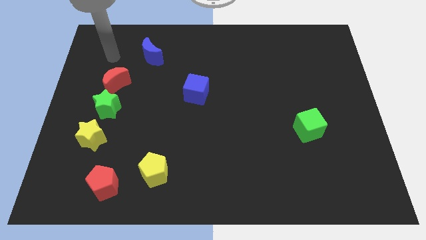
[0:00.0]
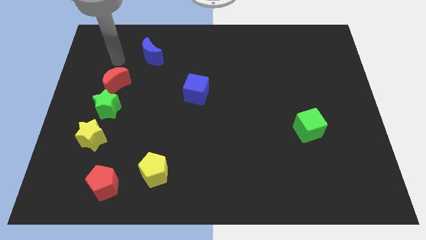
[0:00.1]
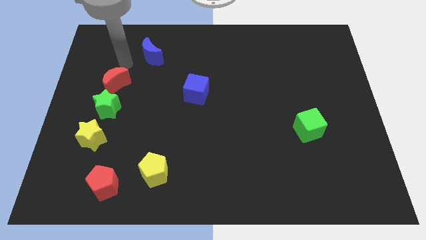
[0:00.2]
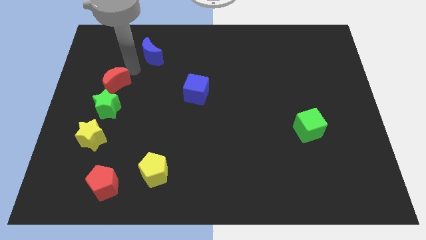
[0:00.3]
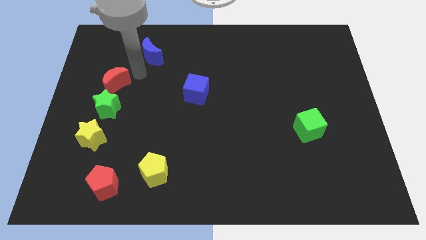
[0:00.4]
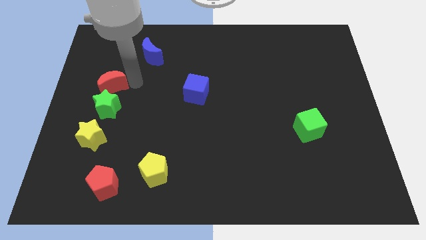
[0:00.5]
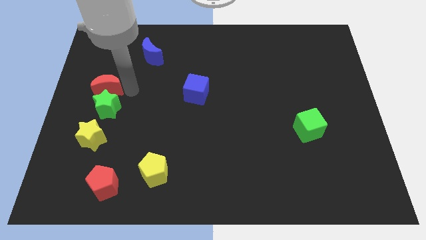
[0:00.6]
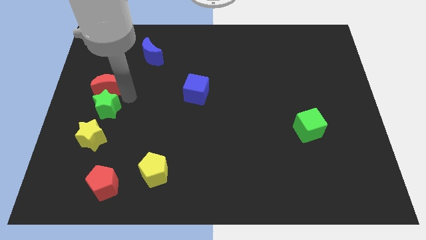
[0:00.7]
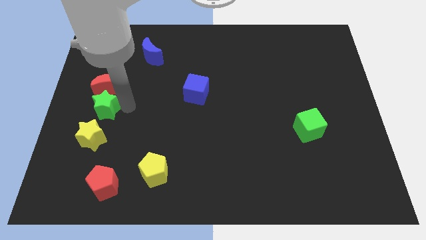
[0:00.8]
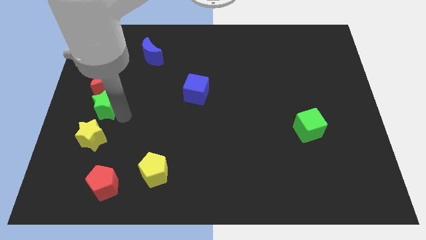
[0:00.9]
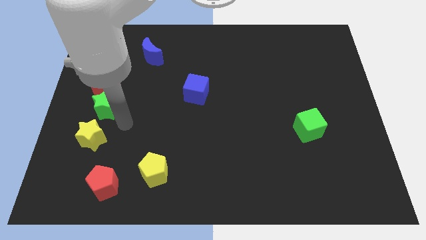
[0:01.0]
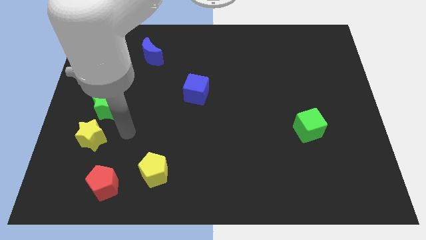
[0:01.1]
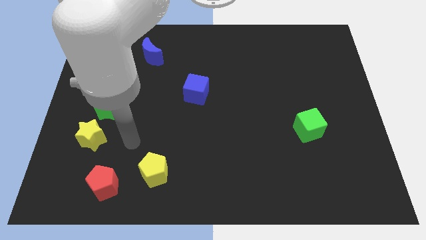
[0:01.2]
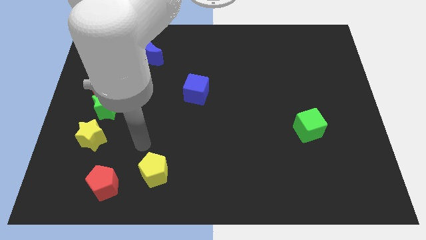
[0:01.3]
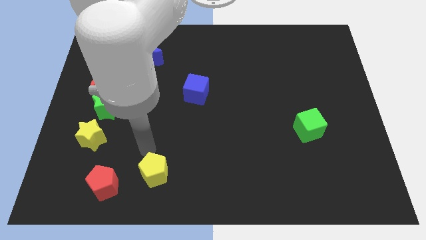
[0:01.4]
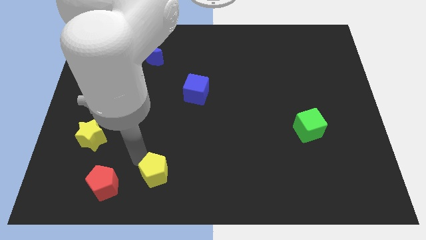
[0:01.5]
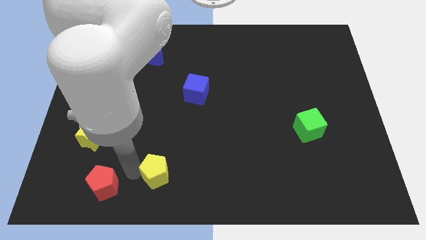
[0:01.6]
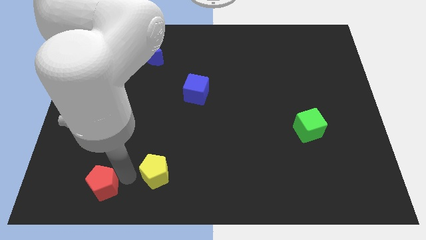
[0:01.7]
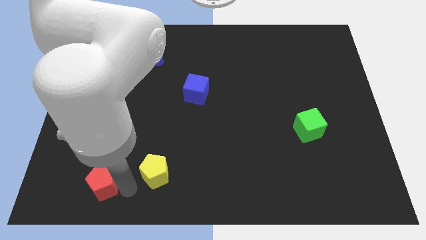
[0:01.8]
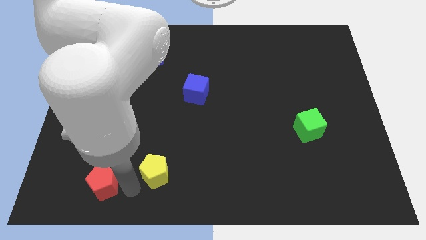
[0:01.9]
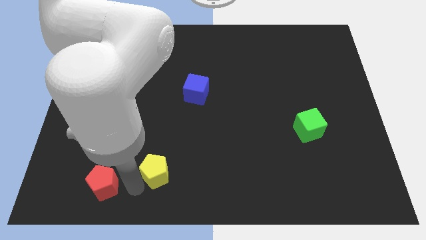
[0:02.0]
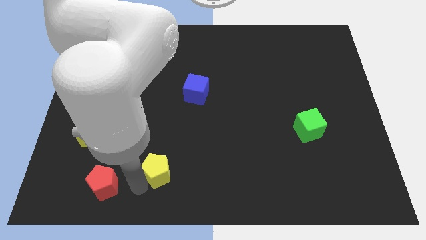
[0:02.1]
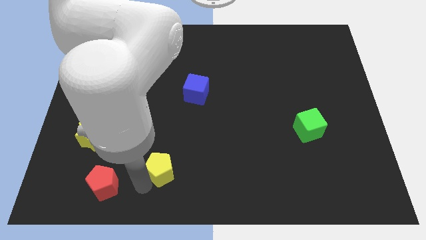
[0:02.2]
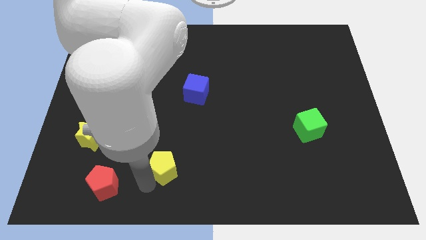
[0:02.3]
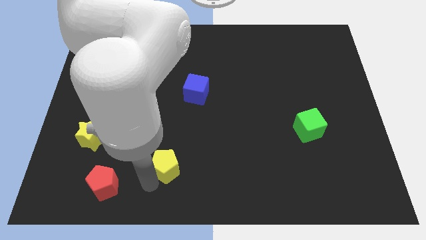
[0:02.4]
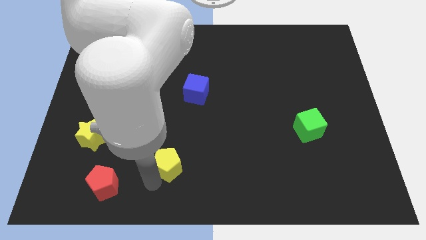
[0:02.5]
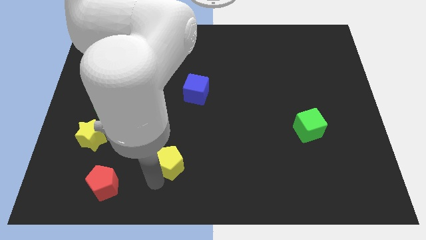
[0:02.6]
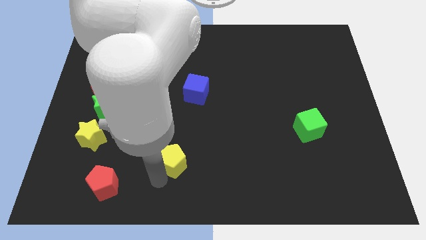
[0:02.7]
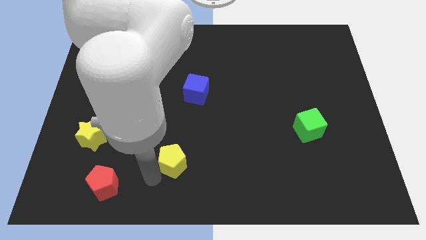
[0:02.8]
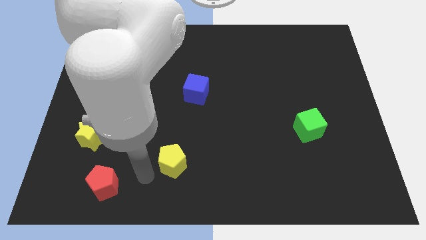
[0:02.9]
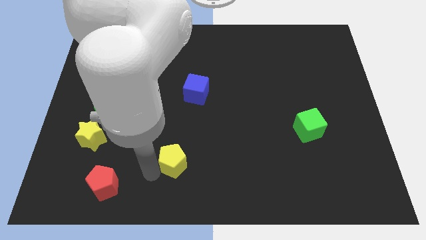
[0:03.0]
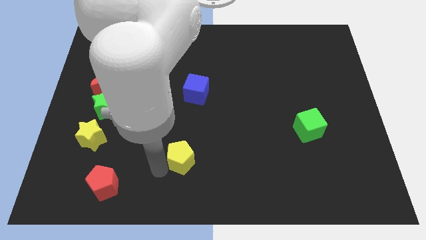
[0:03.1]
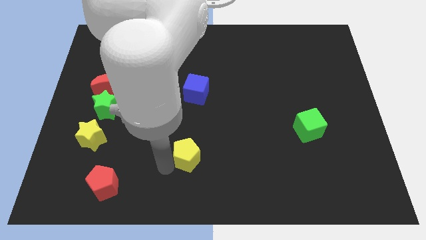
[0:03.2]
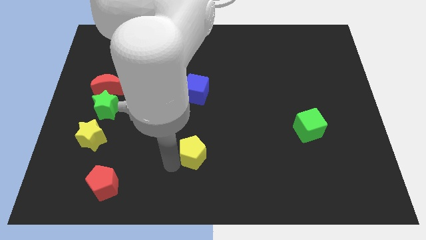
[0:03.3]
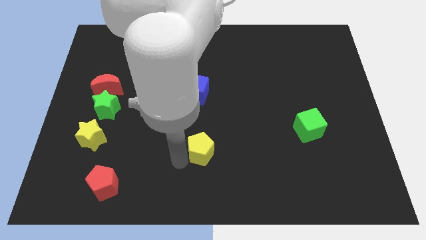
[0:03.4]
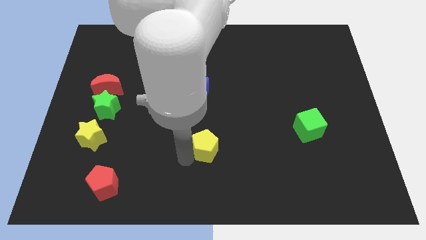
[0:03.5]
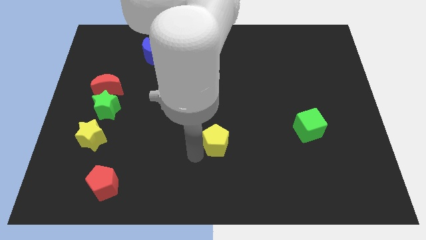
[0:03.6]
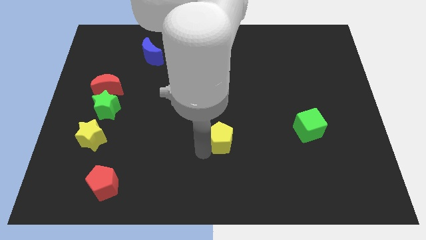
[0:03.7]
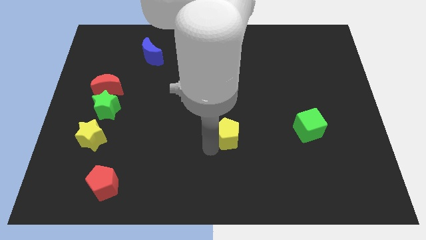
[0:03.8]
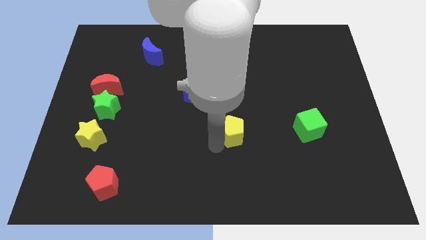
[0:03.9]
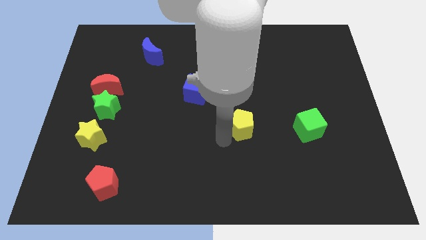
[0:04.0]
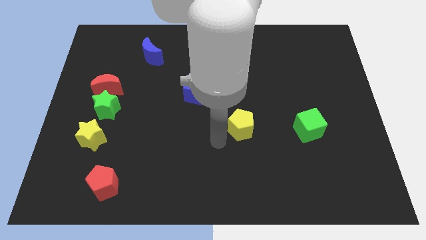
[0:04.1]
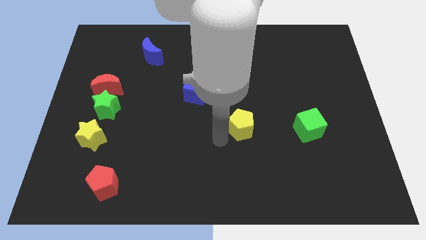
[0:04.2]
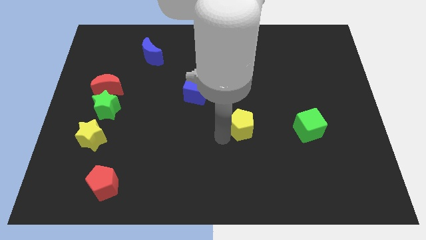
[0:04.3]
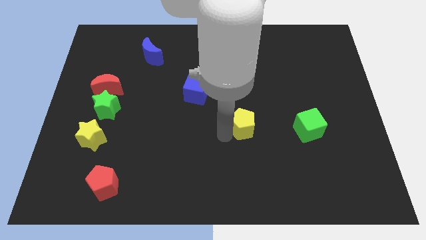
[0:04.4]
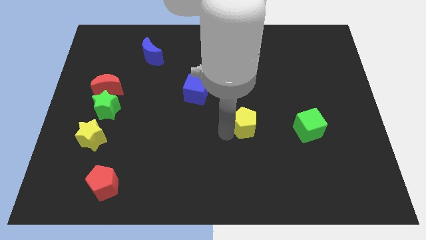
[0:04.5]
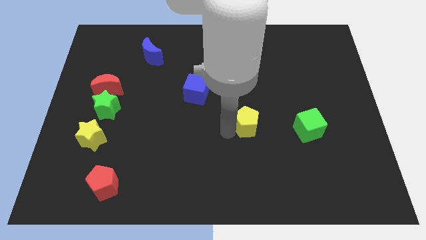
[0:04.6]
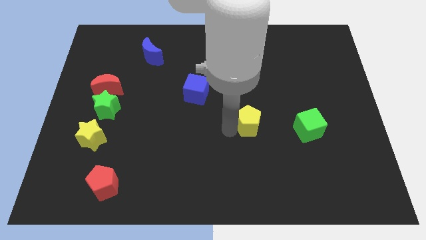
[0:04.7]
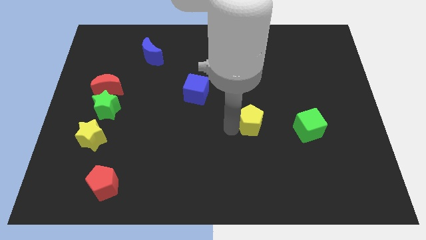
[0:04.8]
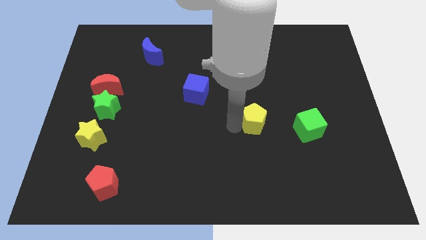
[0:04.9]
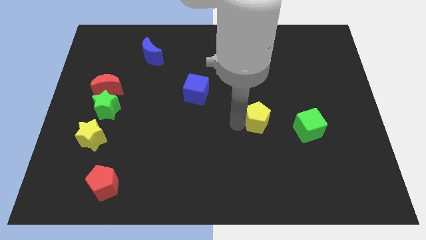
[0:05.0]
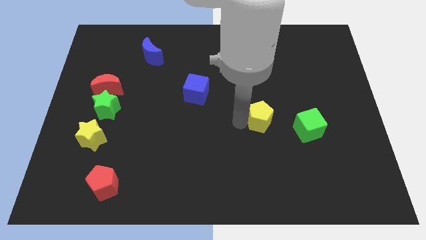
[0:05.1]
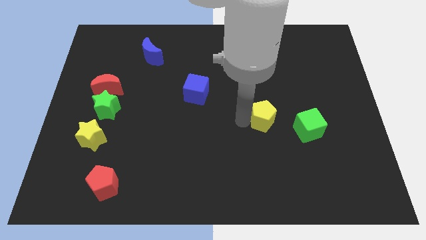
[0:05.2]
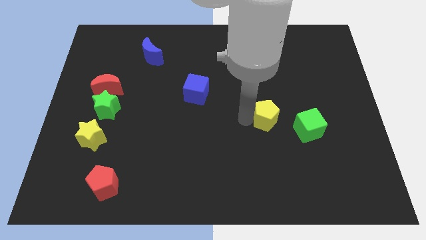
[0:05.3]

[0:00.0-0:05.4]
slide the yellow pentagon to the top left of the green cube

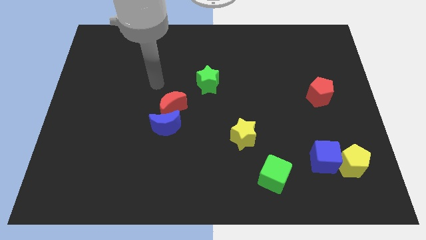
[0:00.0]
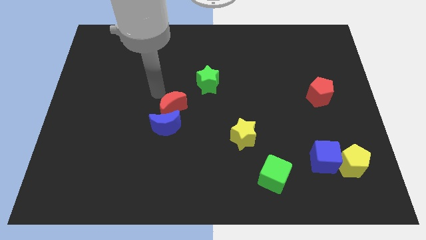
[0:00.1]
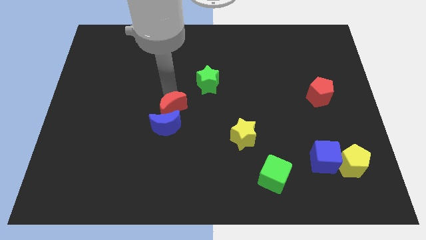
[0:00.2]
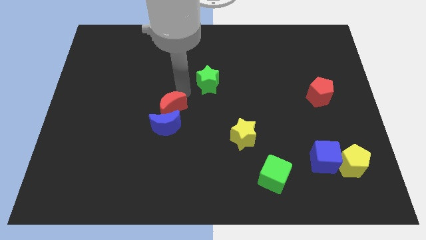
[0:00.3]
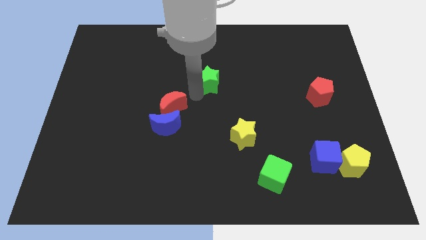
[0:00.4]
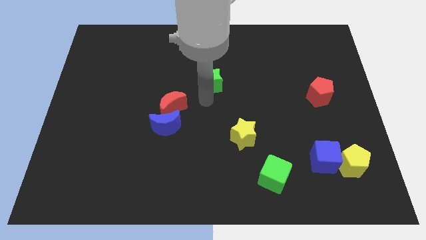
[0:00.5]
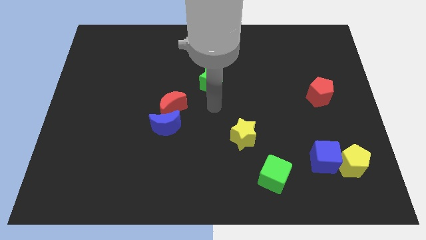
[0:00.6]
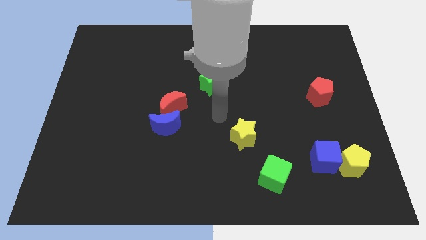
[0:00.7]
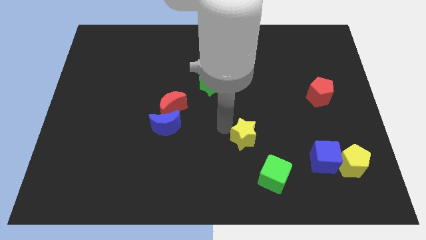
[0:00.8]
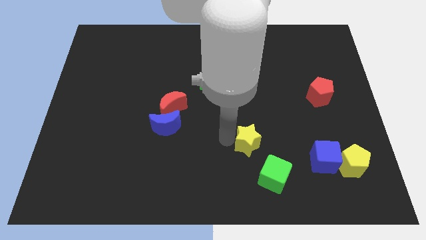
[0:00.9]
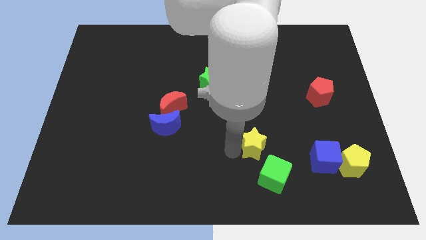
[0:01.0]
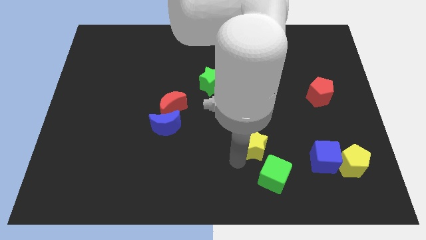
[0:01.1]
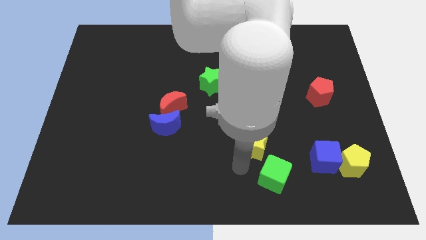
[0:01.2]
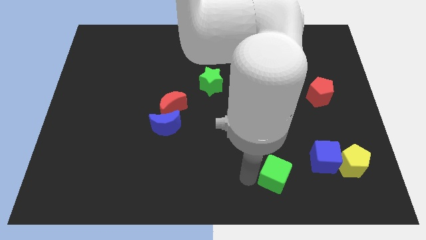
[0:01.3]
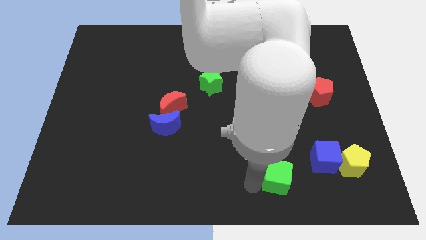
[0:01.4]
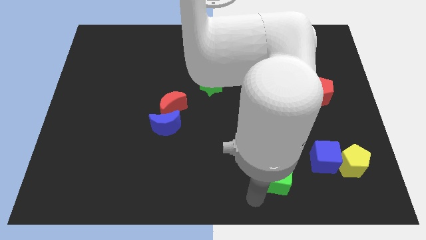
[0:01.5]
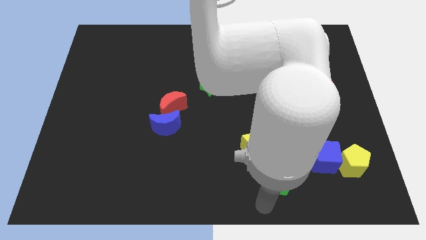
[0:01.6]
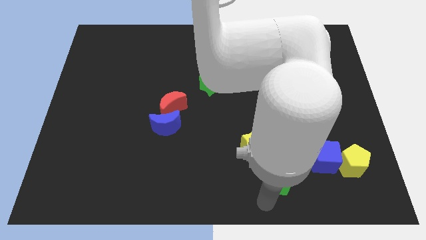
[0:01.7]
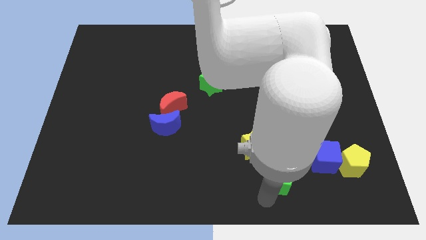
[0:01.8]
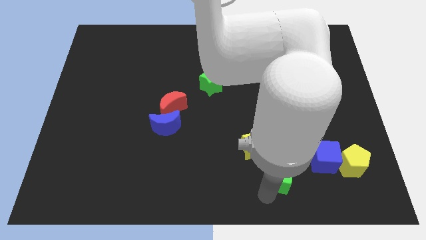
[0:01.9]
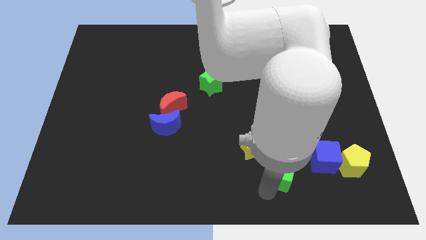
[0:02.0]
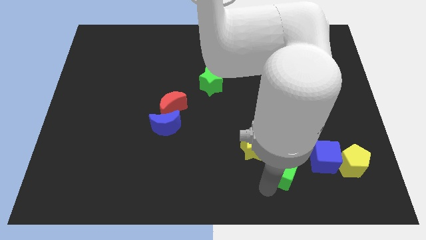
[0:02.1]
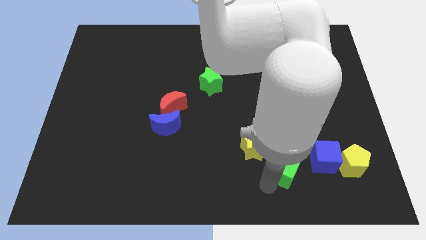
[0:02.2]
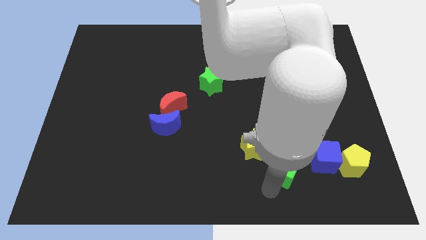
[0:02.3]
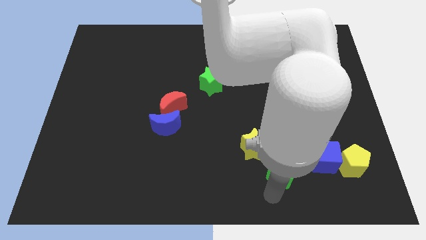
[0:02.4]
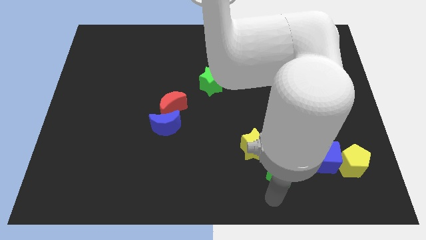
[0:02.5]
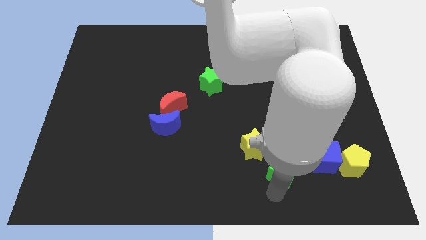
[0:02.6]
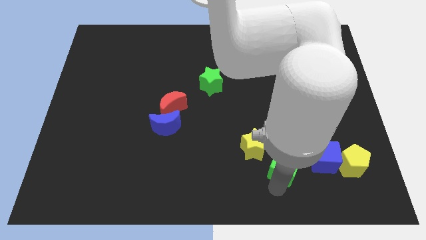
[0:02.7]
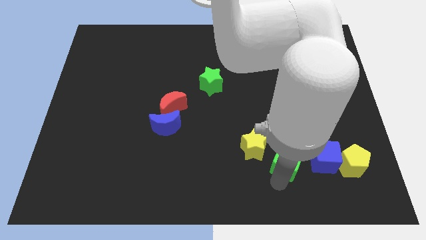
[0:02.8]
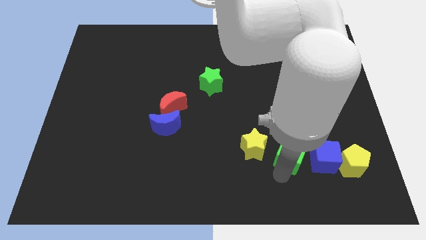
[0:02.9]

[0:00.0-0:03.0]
put the green cube to the top left side of the blue cube

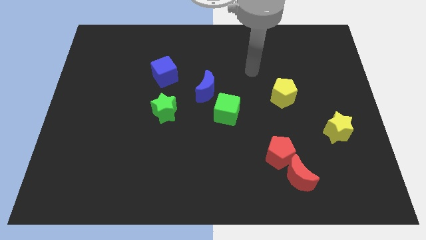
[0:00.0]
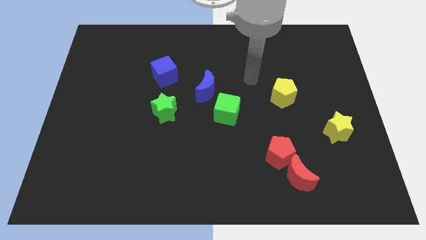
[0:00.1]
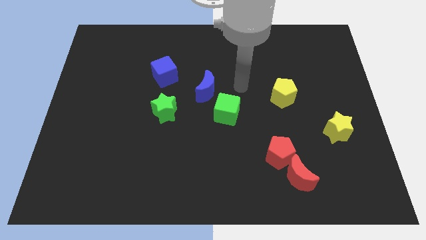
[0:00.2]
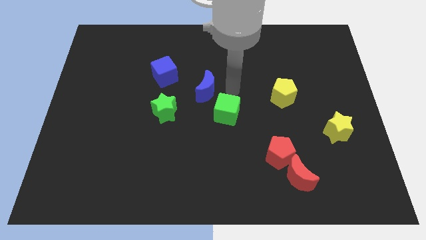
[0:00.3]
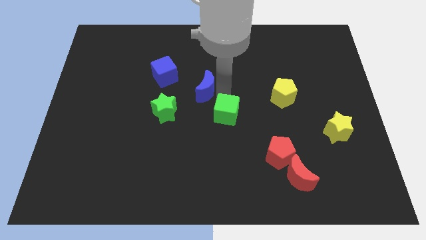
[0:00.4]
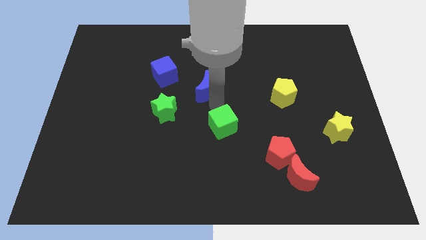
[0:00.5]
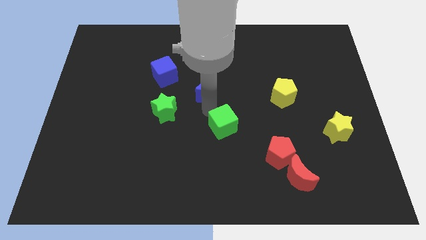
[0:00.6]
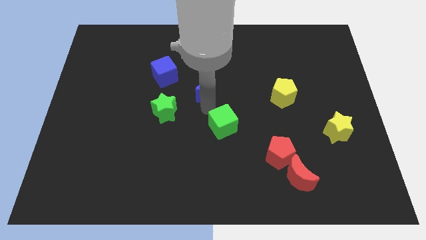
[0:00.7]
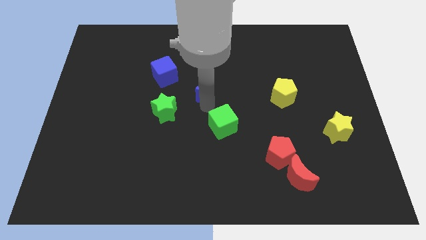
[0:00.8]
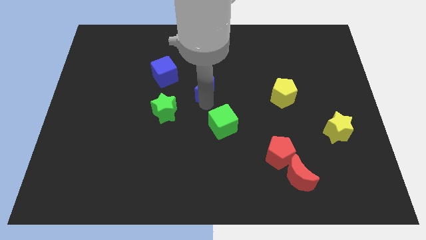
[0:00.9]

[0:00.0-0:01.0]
push the blue moon to the right side of the blue cube
